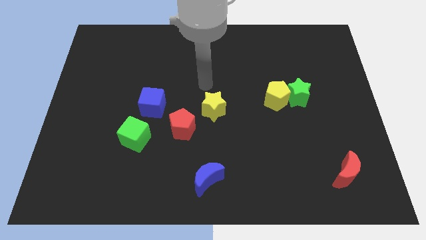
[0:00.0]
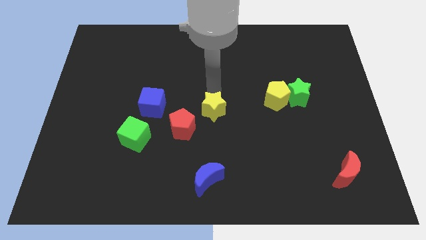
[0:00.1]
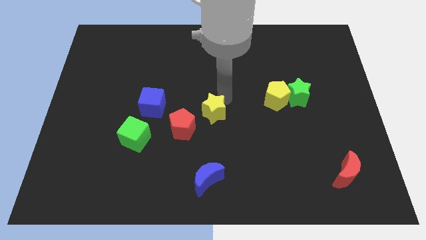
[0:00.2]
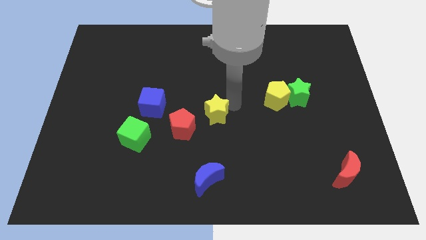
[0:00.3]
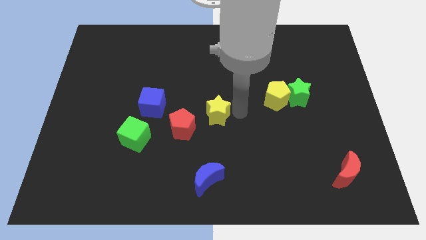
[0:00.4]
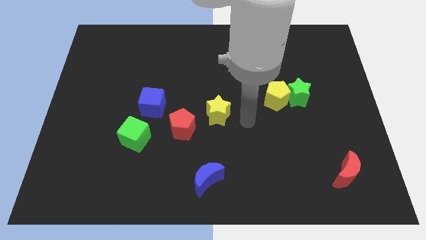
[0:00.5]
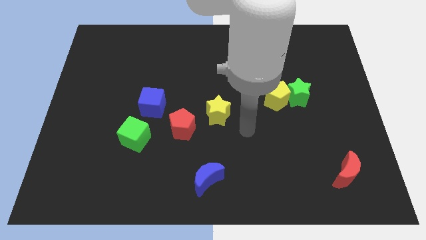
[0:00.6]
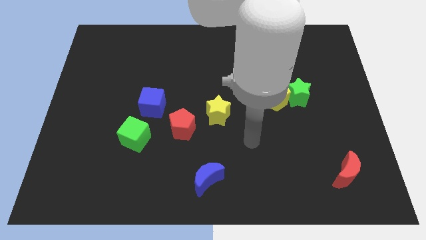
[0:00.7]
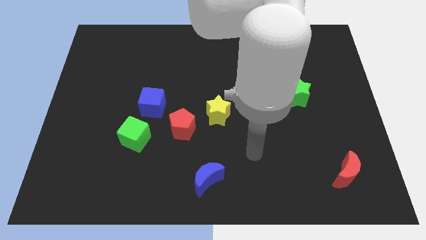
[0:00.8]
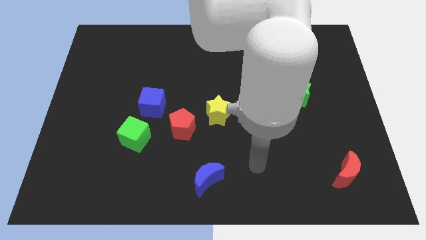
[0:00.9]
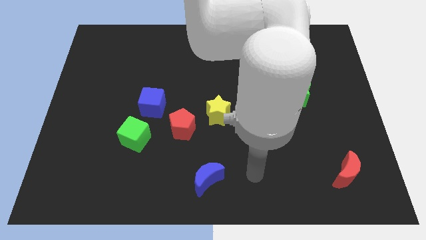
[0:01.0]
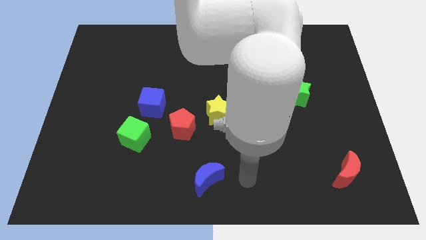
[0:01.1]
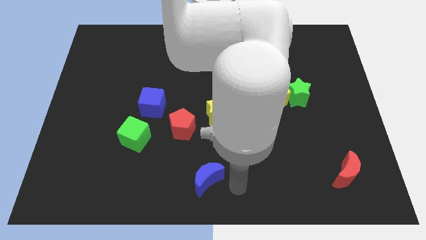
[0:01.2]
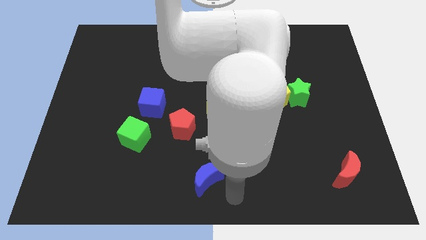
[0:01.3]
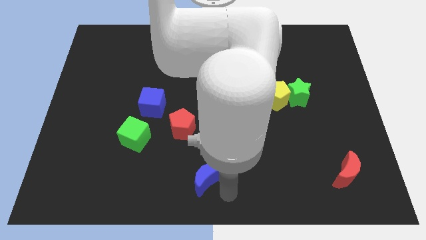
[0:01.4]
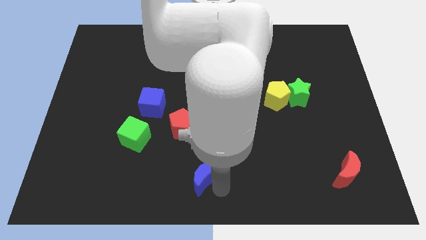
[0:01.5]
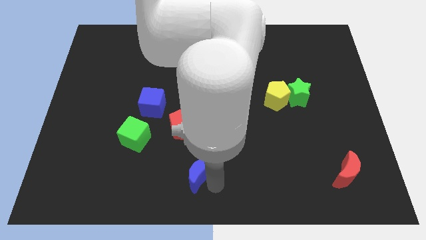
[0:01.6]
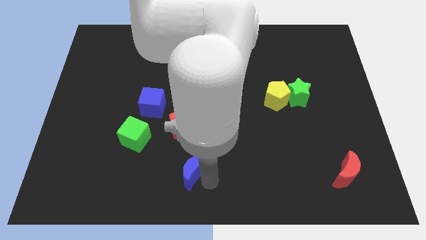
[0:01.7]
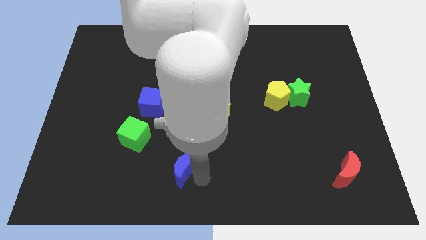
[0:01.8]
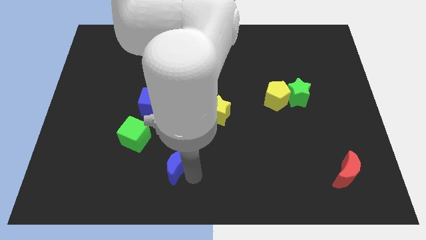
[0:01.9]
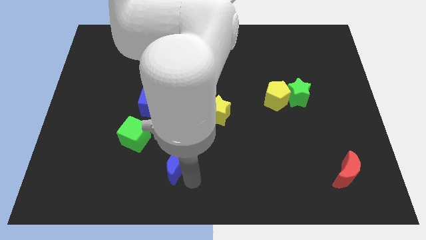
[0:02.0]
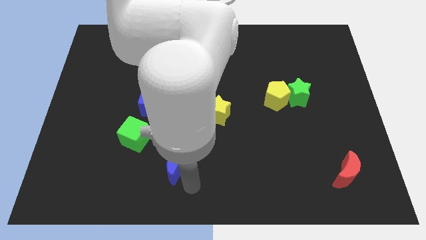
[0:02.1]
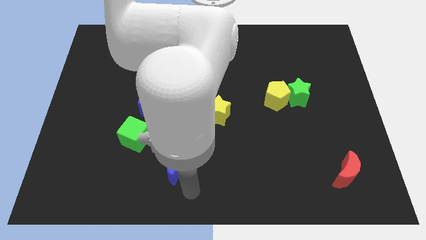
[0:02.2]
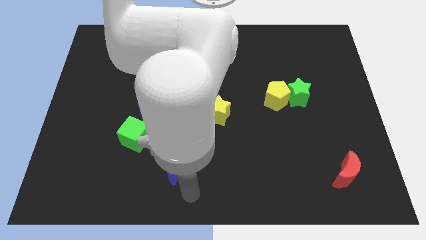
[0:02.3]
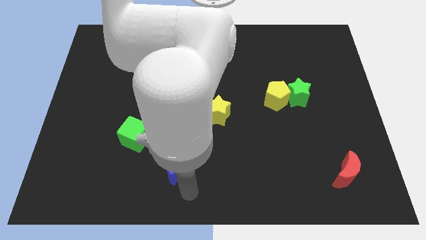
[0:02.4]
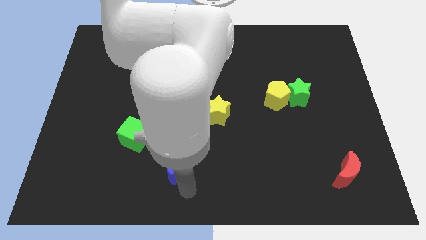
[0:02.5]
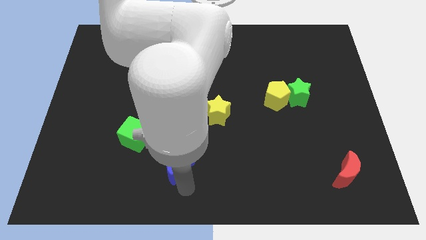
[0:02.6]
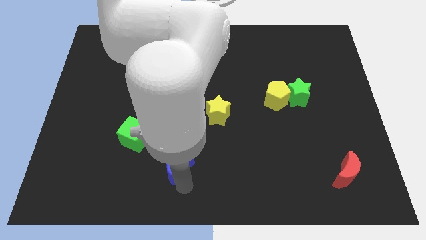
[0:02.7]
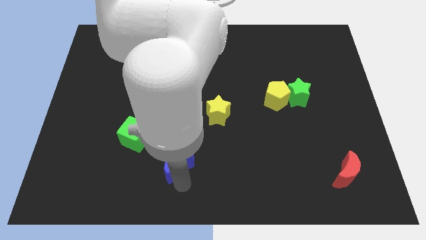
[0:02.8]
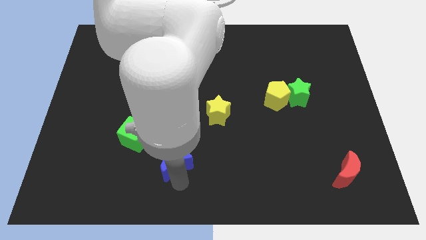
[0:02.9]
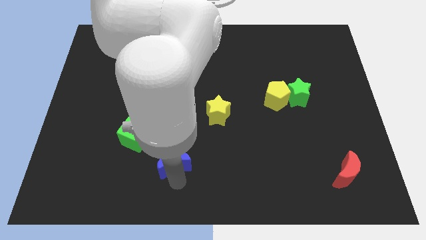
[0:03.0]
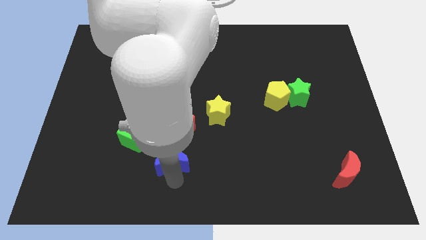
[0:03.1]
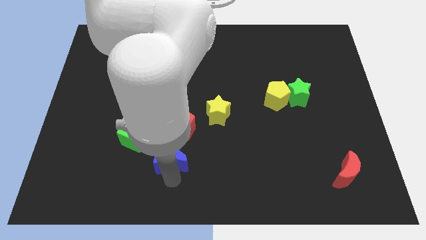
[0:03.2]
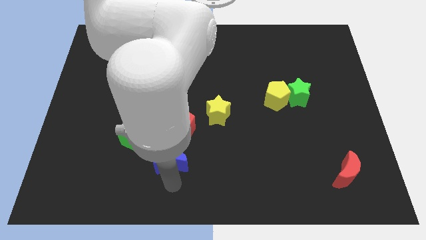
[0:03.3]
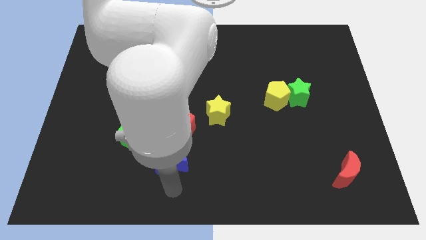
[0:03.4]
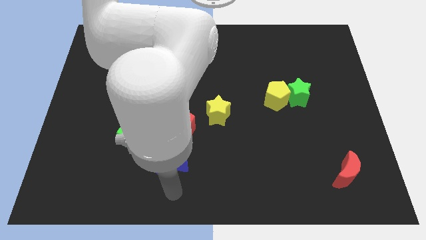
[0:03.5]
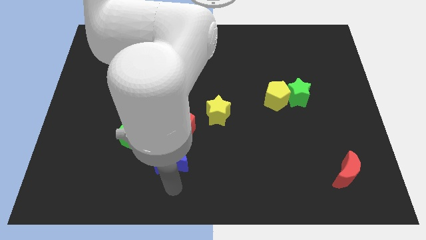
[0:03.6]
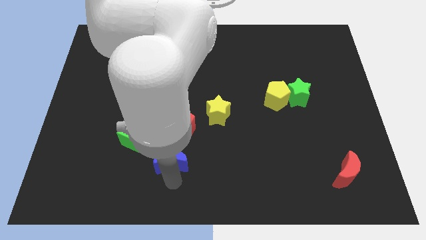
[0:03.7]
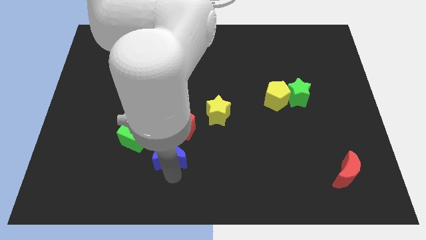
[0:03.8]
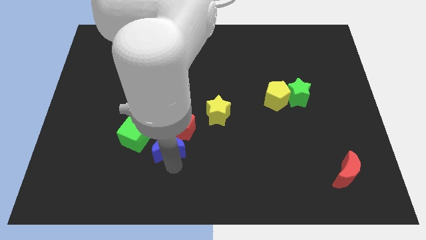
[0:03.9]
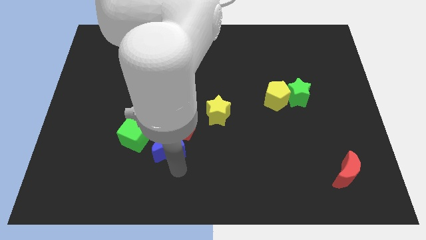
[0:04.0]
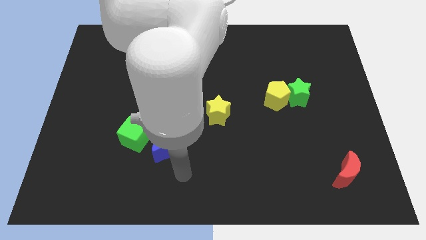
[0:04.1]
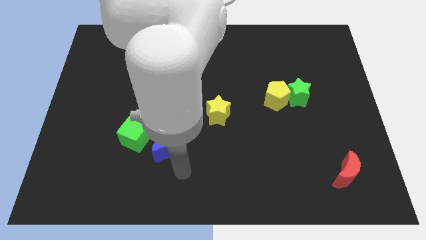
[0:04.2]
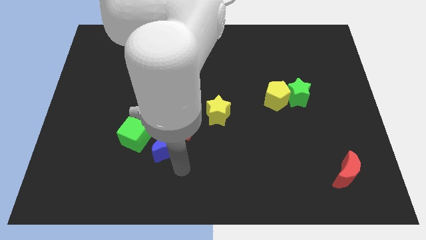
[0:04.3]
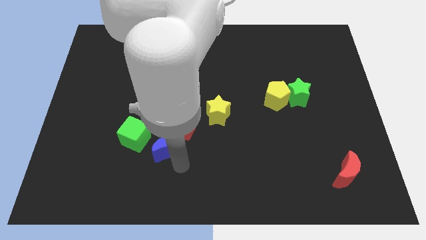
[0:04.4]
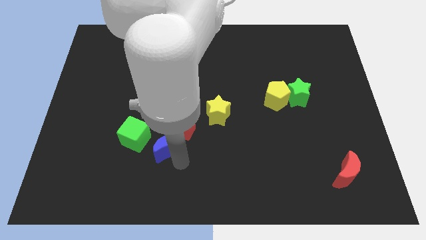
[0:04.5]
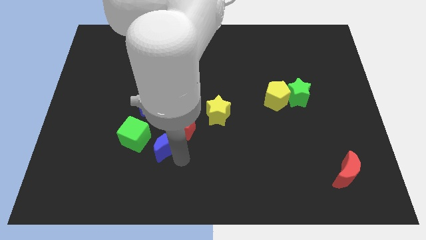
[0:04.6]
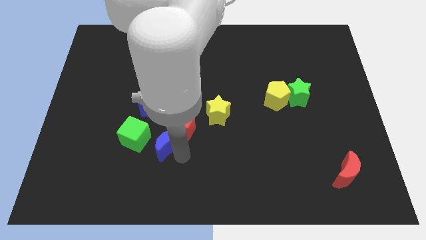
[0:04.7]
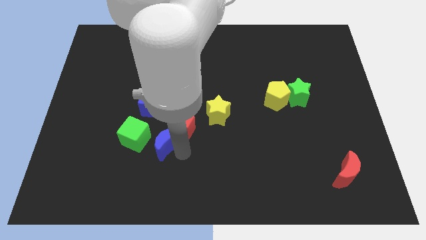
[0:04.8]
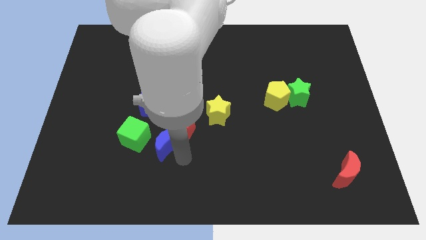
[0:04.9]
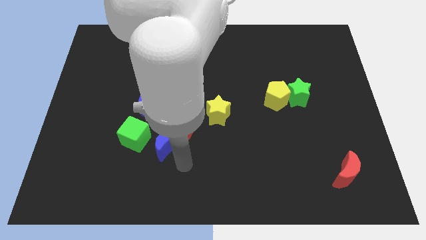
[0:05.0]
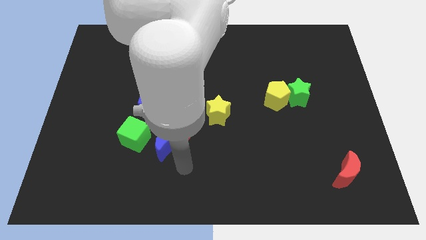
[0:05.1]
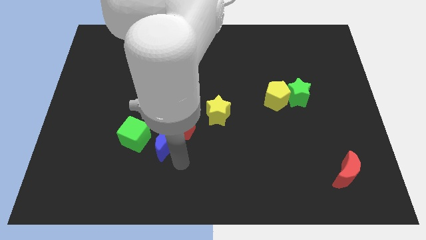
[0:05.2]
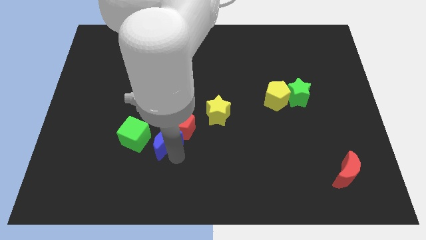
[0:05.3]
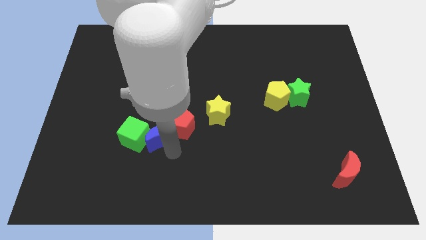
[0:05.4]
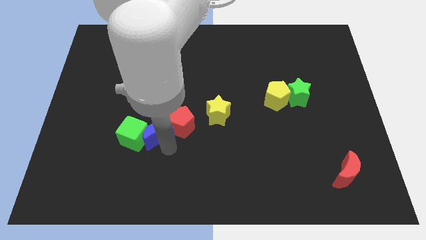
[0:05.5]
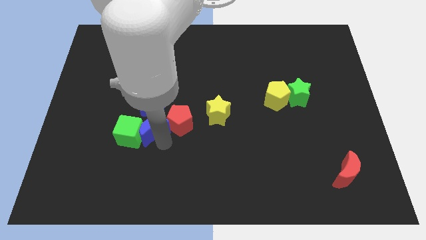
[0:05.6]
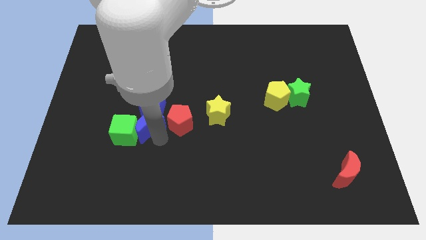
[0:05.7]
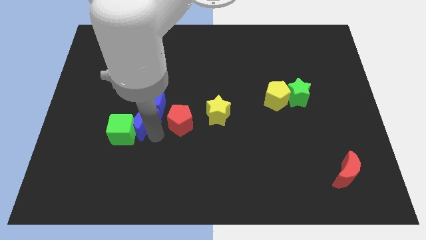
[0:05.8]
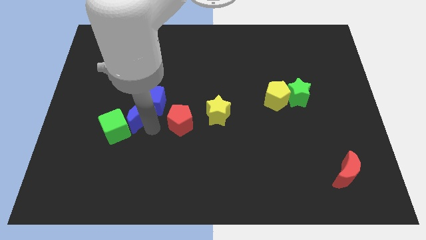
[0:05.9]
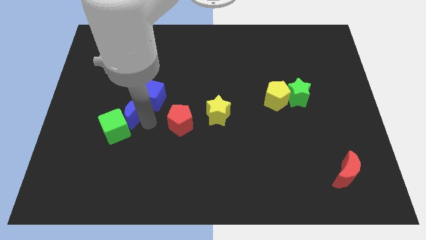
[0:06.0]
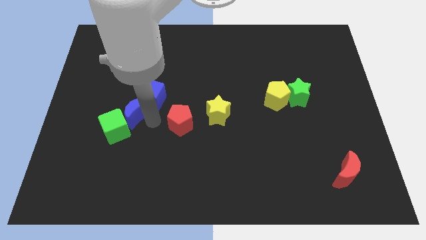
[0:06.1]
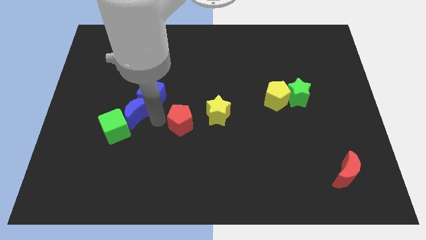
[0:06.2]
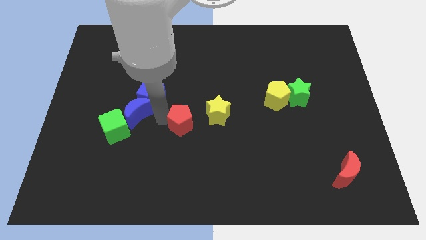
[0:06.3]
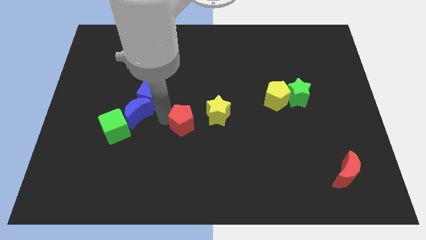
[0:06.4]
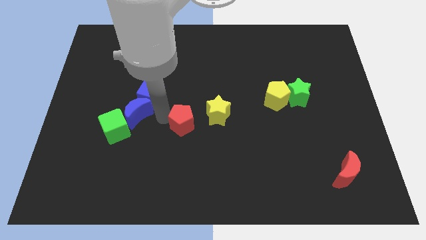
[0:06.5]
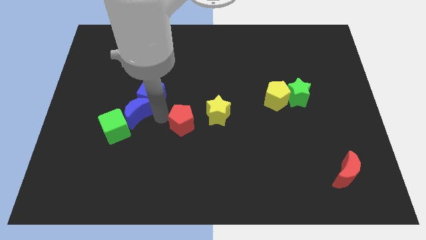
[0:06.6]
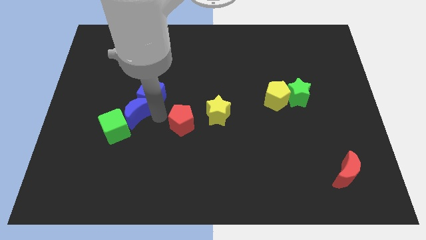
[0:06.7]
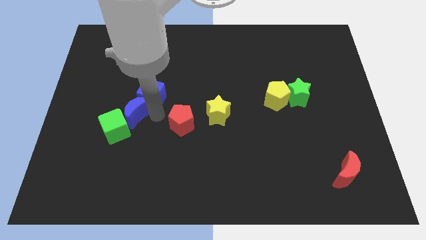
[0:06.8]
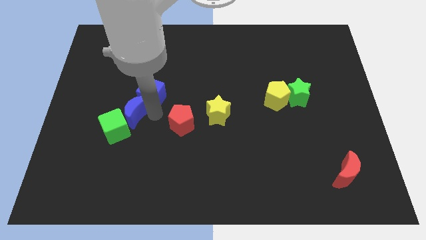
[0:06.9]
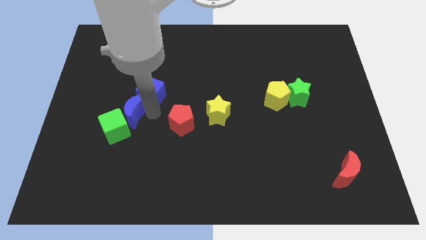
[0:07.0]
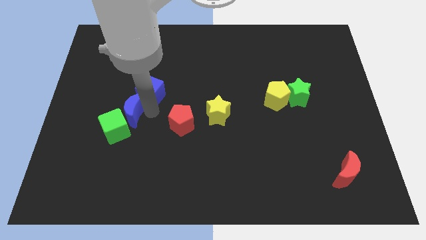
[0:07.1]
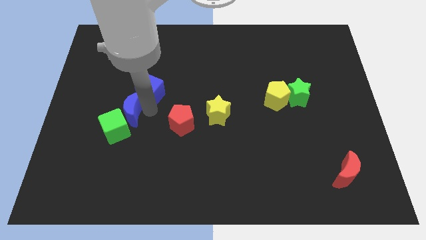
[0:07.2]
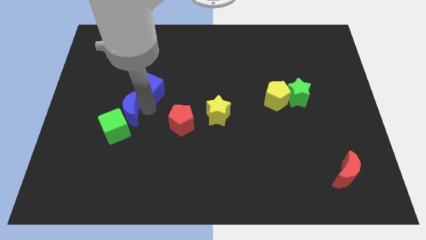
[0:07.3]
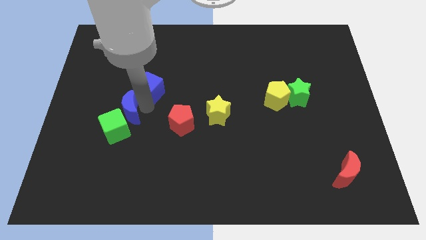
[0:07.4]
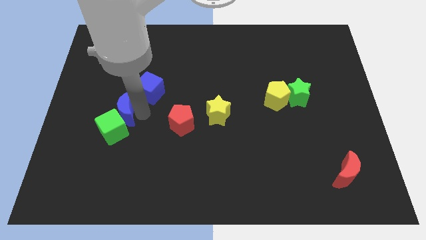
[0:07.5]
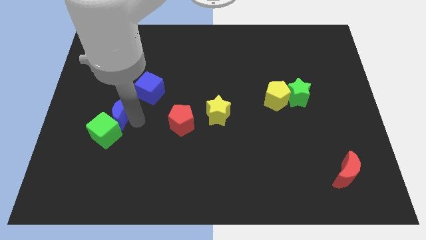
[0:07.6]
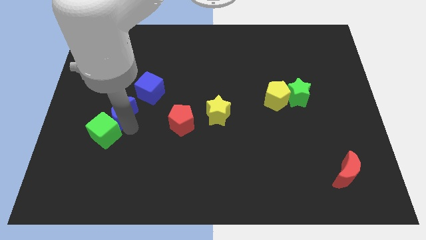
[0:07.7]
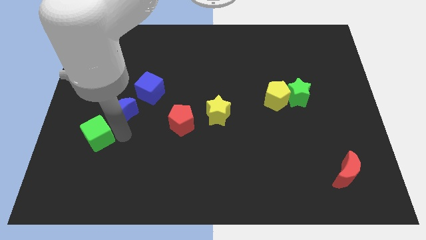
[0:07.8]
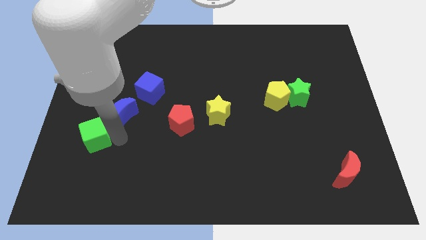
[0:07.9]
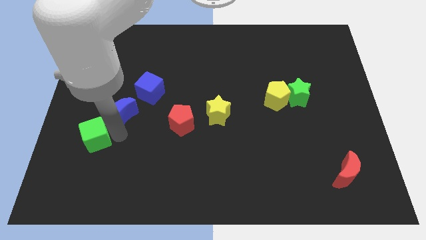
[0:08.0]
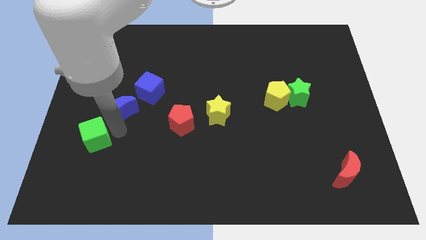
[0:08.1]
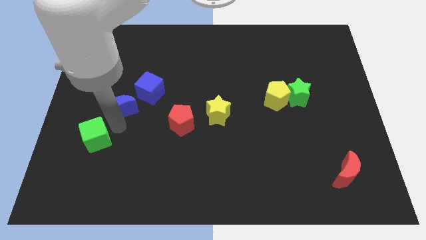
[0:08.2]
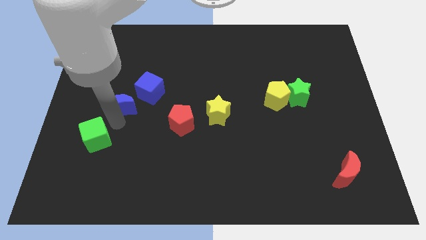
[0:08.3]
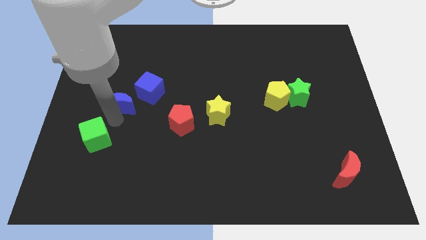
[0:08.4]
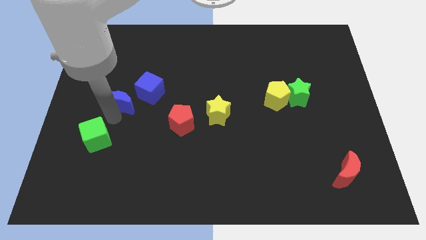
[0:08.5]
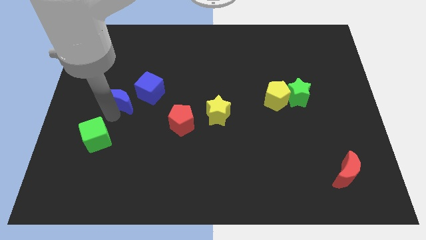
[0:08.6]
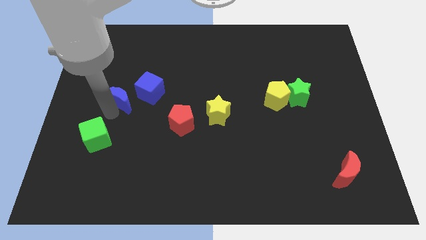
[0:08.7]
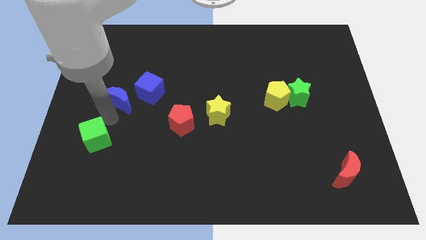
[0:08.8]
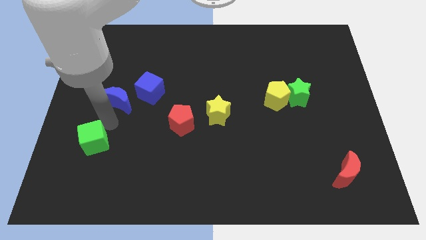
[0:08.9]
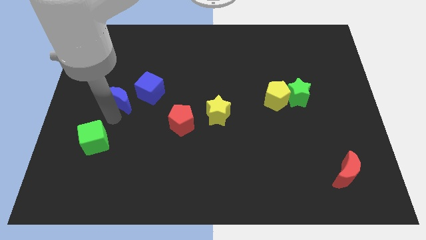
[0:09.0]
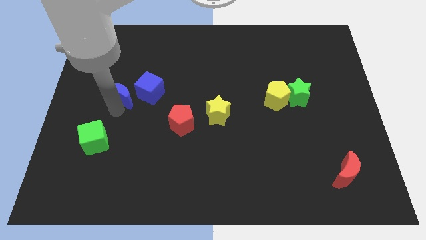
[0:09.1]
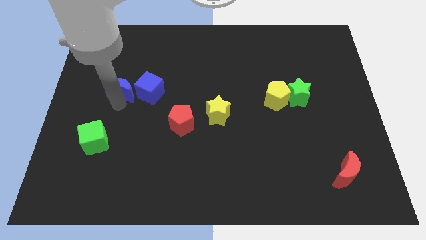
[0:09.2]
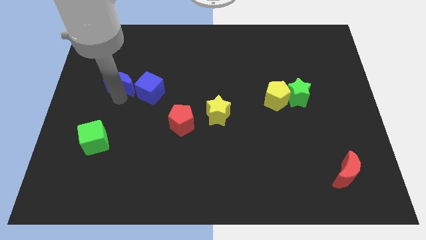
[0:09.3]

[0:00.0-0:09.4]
put the blue moon to the top left of the blue cube
